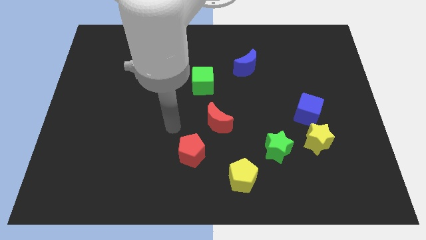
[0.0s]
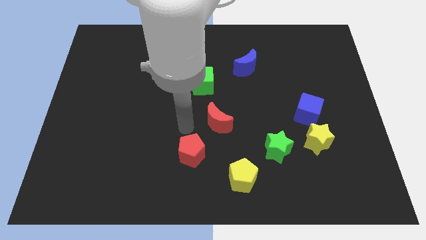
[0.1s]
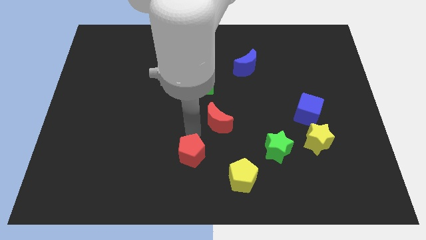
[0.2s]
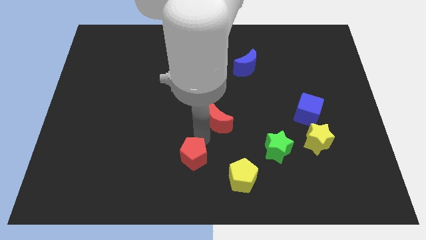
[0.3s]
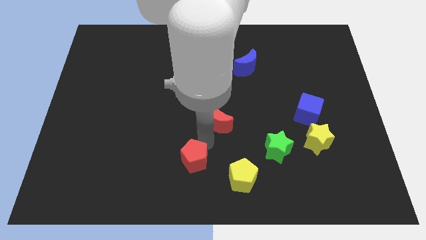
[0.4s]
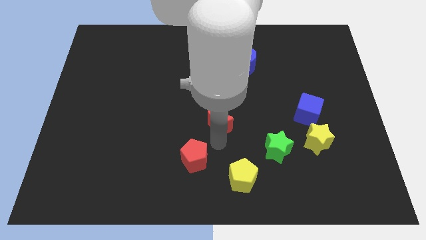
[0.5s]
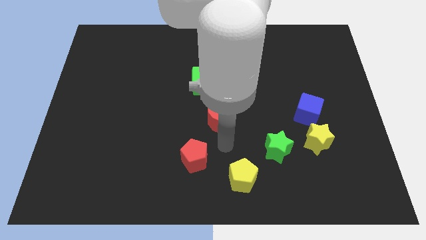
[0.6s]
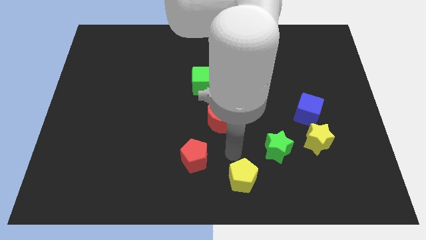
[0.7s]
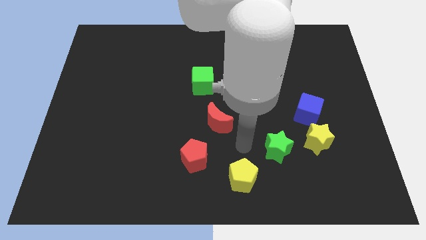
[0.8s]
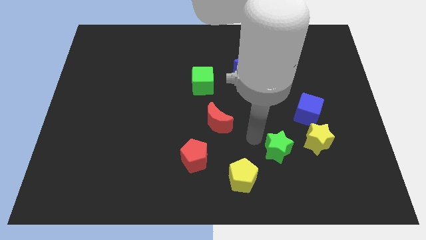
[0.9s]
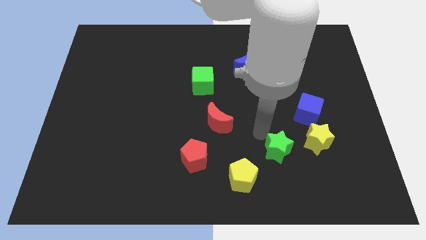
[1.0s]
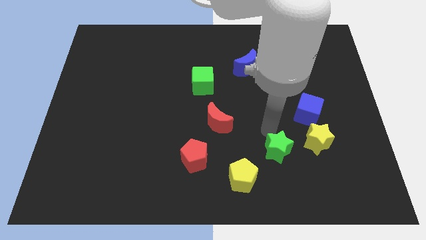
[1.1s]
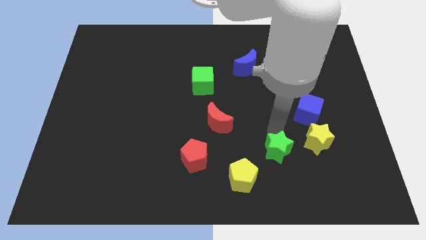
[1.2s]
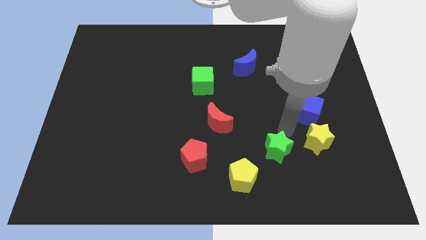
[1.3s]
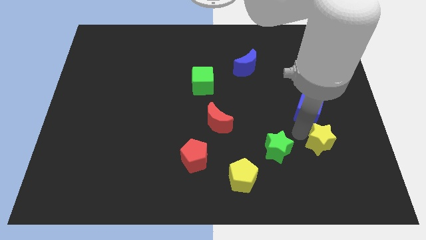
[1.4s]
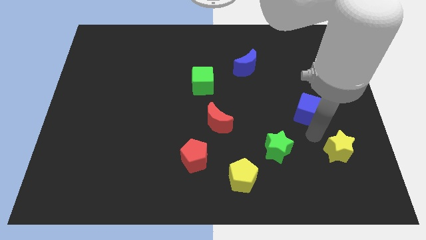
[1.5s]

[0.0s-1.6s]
move the blue cube away from the yellow star

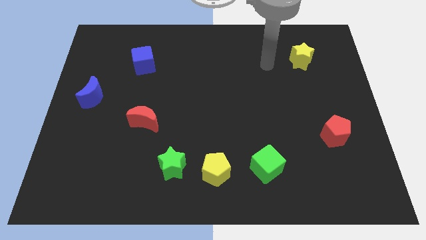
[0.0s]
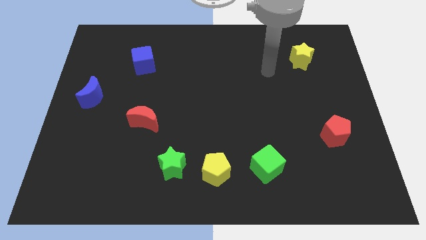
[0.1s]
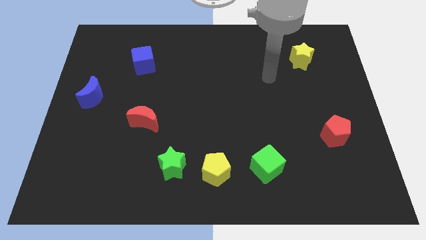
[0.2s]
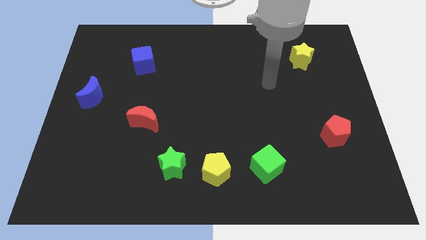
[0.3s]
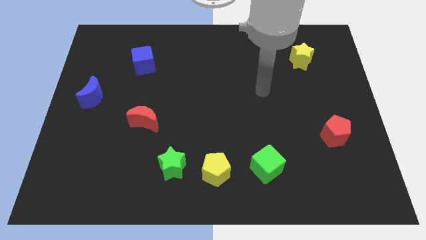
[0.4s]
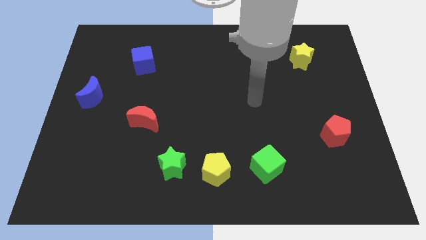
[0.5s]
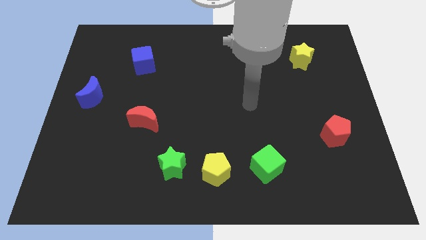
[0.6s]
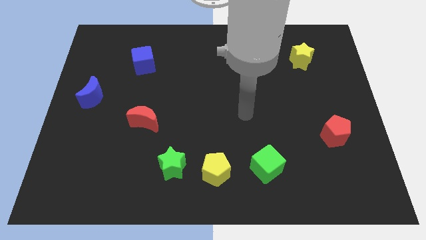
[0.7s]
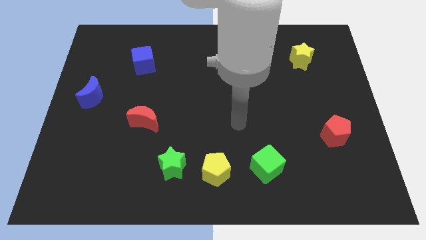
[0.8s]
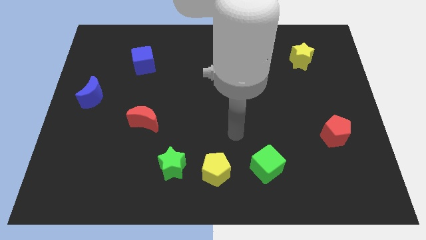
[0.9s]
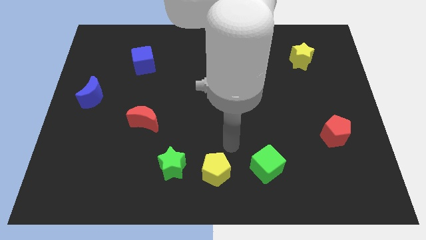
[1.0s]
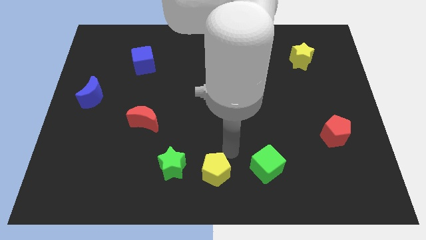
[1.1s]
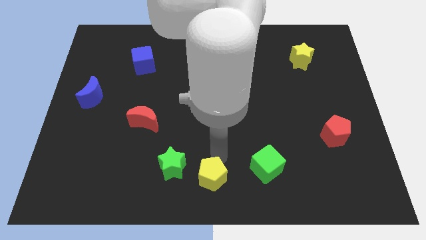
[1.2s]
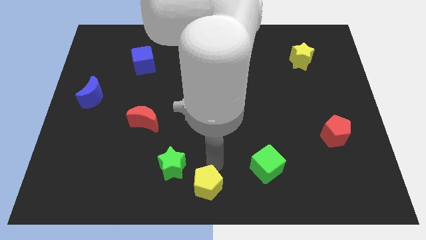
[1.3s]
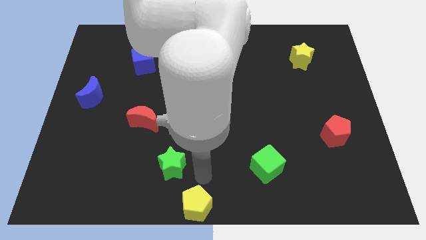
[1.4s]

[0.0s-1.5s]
move the green star away from the yellow pentagon

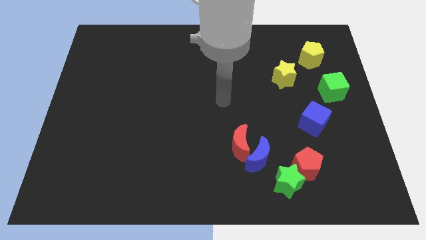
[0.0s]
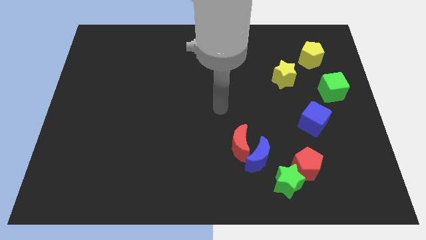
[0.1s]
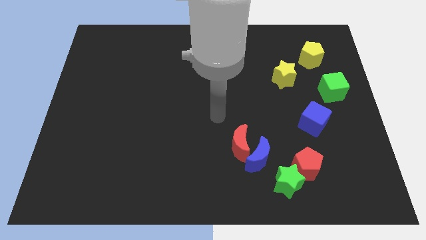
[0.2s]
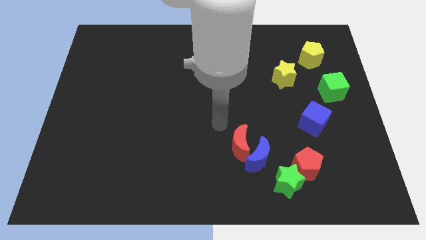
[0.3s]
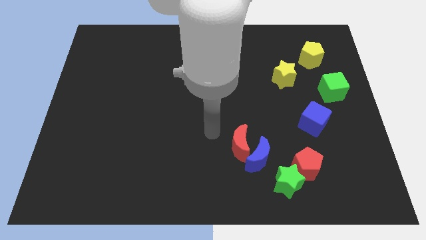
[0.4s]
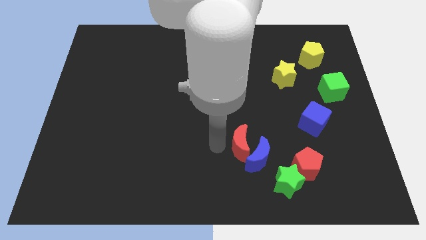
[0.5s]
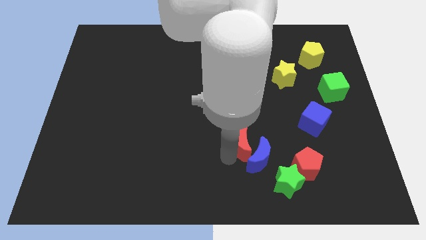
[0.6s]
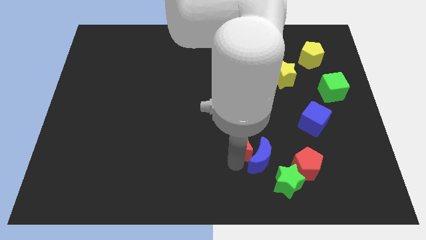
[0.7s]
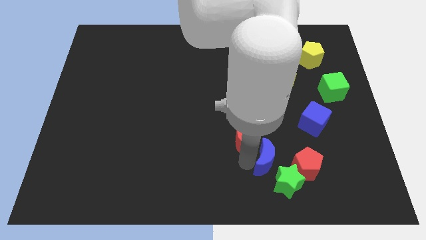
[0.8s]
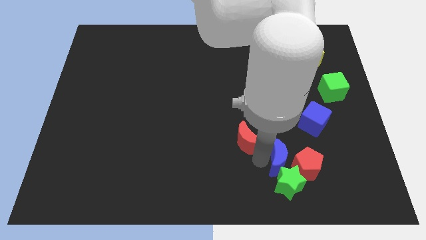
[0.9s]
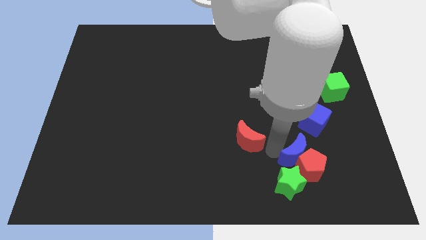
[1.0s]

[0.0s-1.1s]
separate the red moon from the blue moon

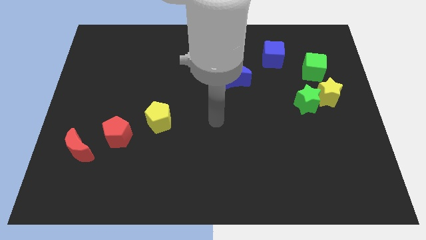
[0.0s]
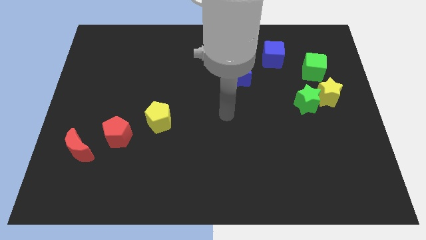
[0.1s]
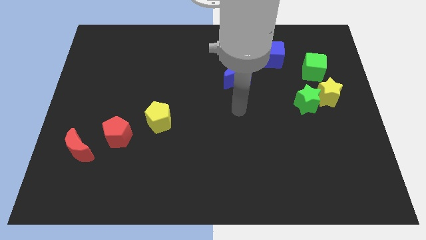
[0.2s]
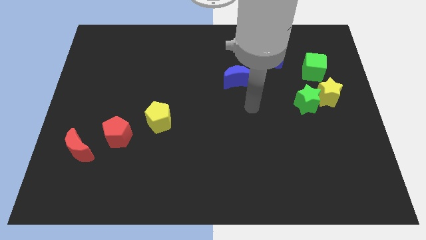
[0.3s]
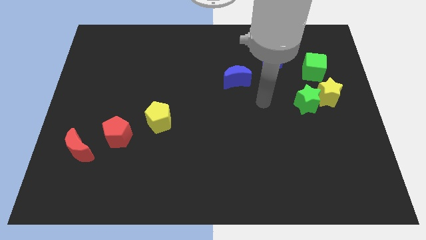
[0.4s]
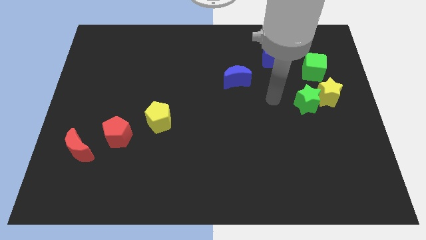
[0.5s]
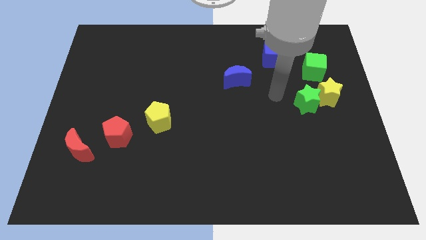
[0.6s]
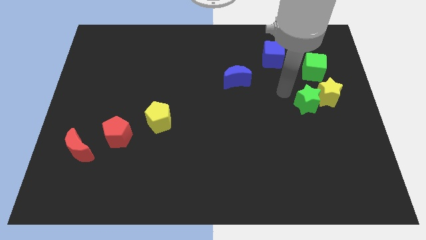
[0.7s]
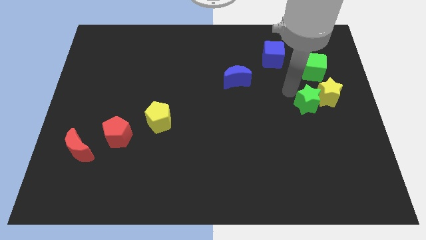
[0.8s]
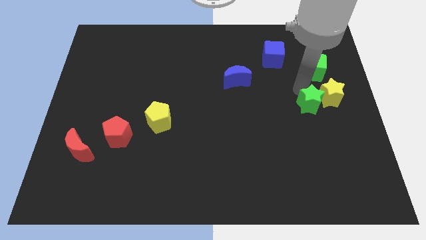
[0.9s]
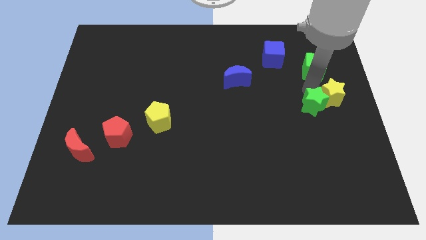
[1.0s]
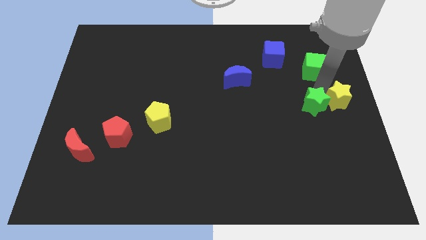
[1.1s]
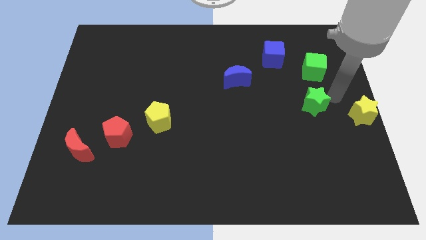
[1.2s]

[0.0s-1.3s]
pull the green star apart from the yellow star

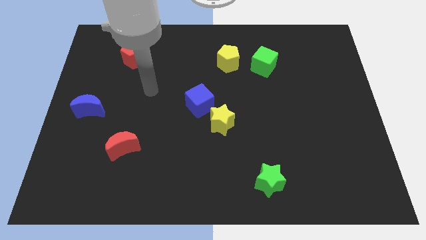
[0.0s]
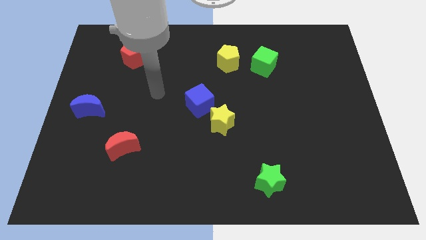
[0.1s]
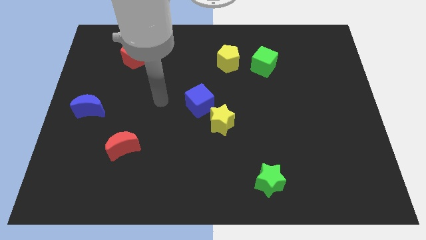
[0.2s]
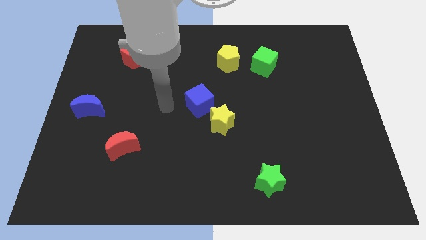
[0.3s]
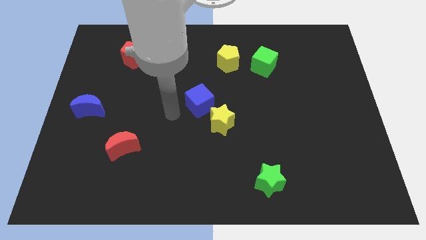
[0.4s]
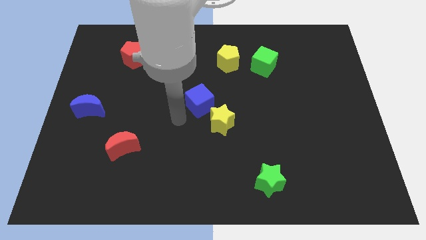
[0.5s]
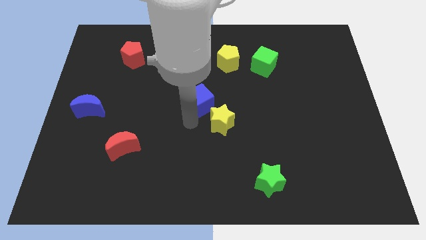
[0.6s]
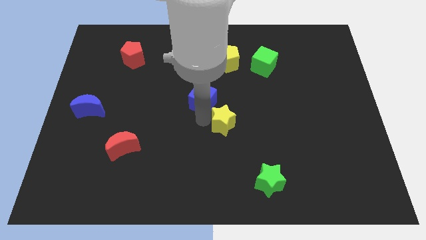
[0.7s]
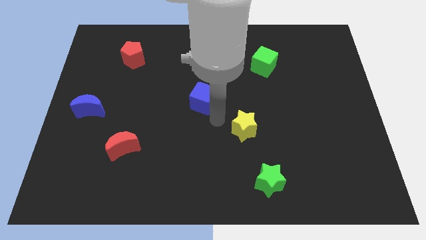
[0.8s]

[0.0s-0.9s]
separate the blue cube from the yellow star

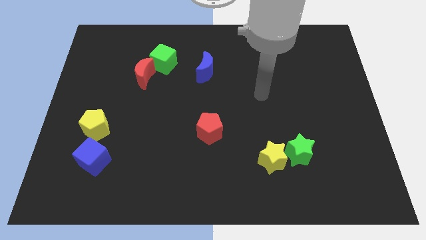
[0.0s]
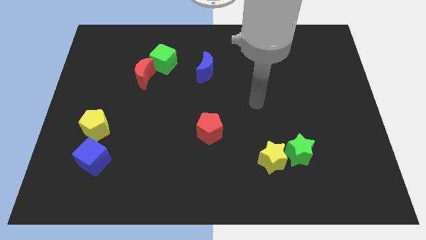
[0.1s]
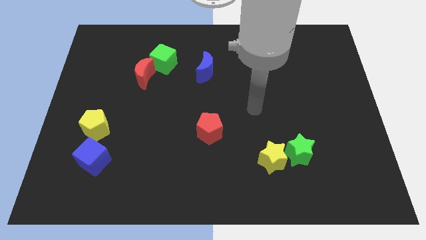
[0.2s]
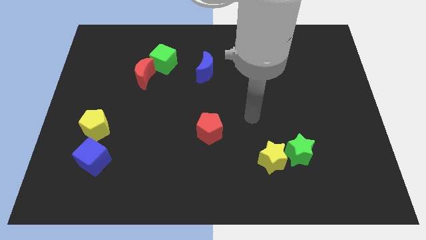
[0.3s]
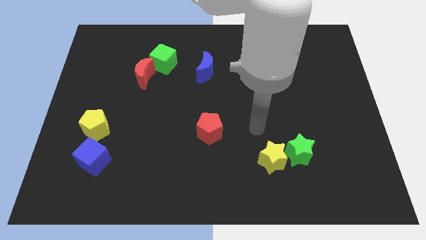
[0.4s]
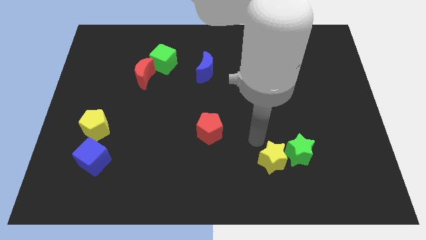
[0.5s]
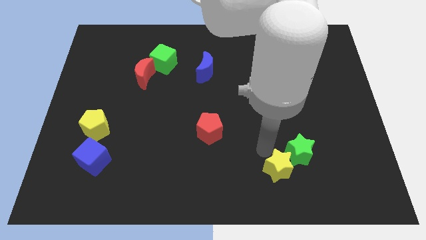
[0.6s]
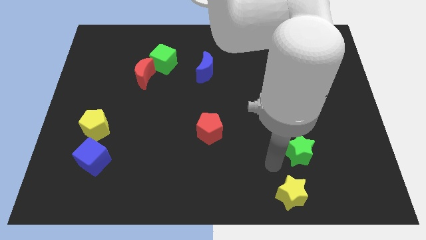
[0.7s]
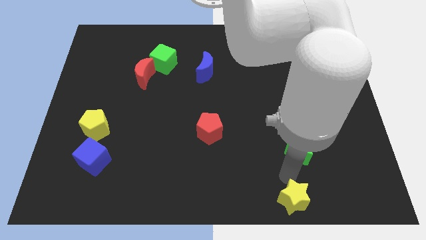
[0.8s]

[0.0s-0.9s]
move the green star away from the yellow star

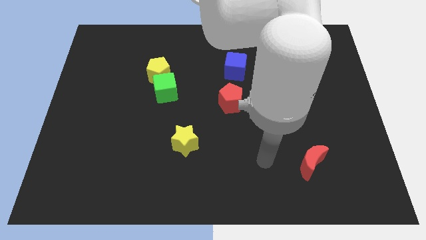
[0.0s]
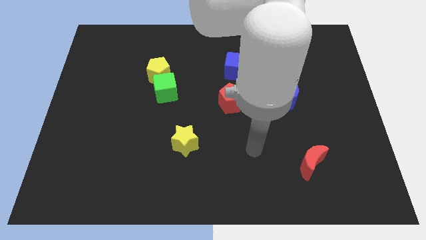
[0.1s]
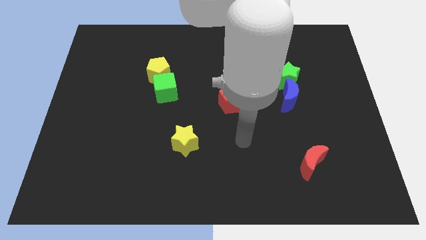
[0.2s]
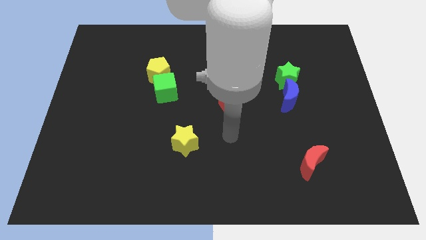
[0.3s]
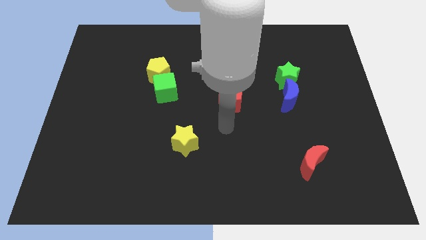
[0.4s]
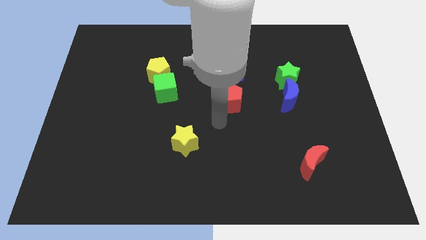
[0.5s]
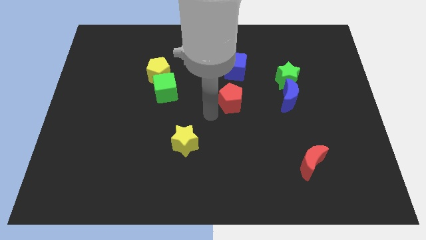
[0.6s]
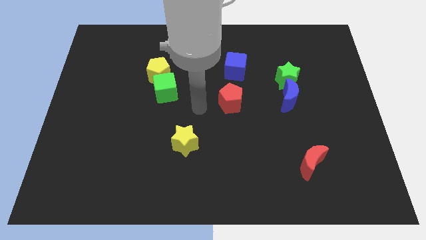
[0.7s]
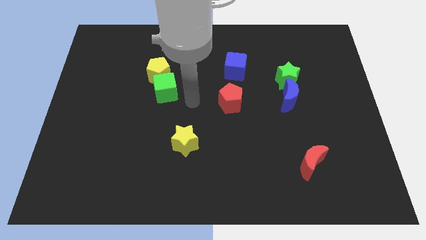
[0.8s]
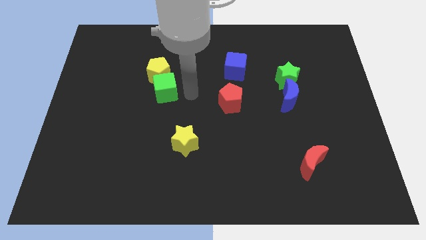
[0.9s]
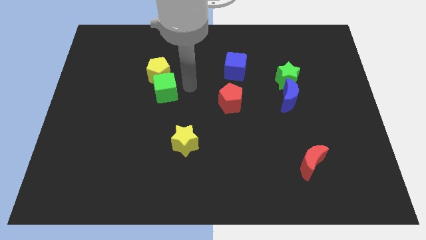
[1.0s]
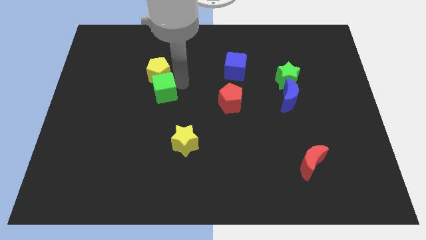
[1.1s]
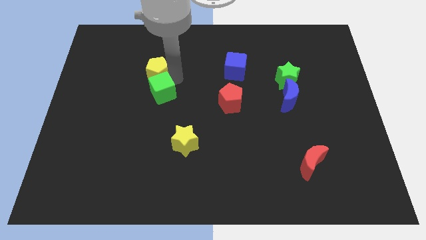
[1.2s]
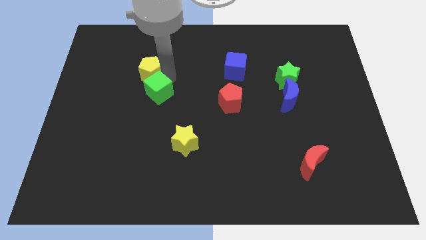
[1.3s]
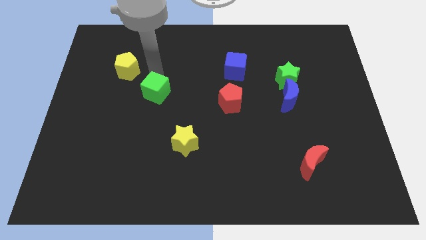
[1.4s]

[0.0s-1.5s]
move the green cube away from the yellow pentagon

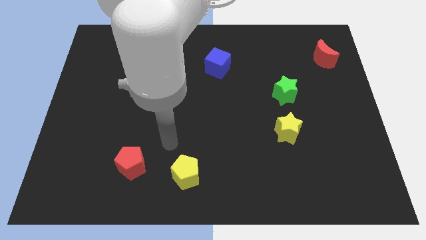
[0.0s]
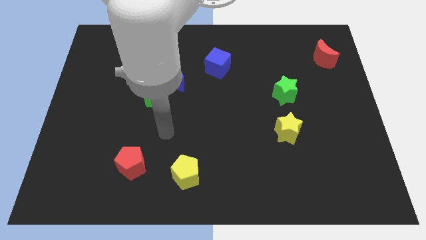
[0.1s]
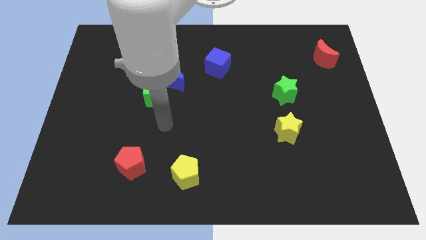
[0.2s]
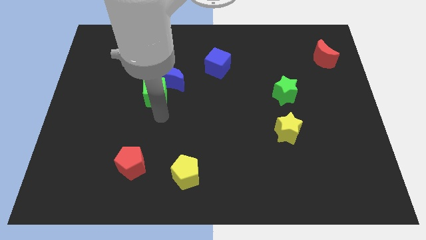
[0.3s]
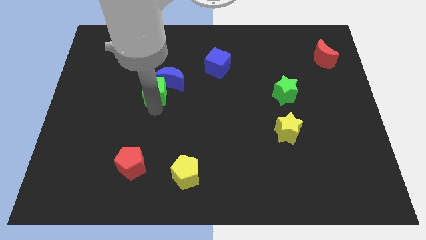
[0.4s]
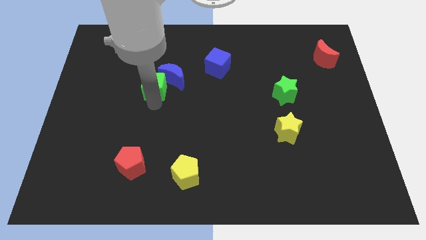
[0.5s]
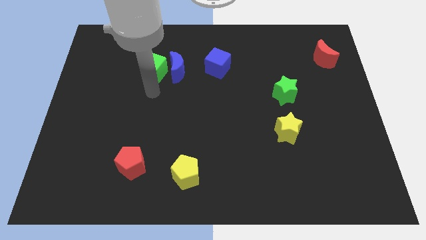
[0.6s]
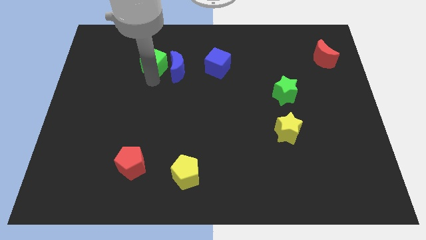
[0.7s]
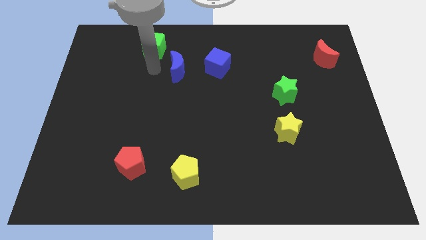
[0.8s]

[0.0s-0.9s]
separate the blue moon from the green cube
